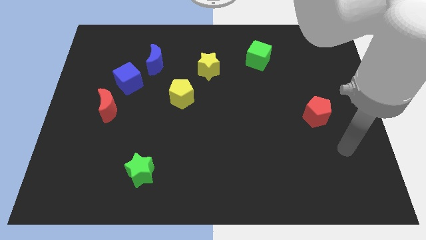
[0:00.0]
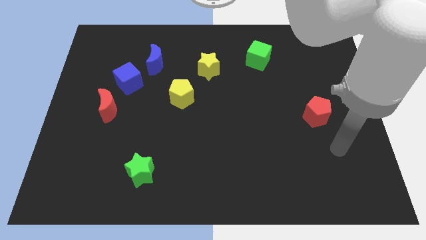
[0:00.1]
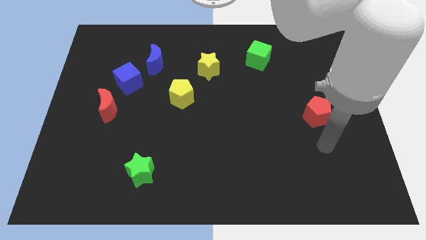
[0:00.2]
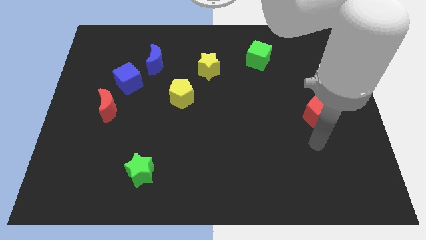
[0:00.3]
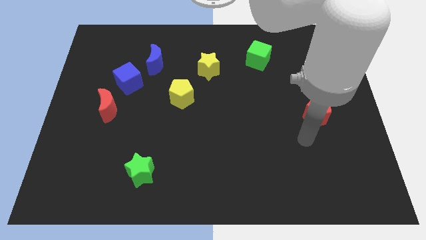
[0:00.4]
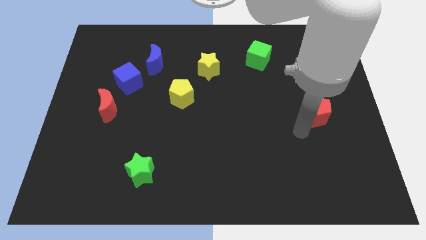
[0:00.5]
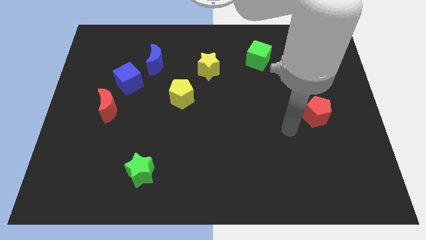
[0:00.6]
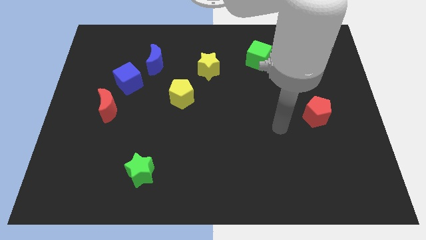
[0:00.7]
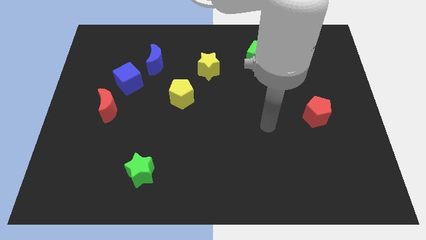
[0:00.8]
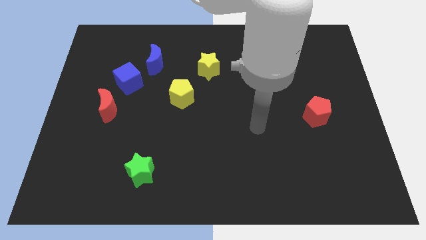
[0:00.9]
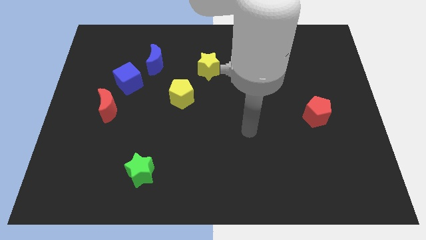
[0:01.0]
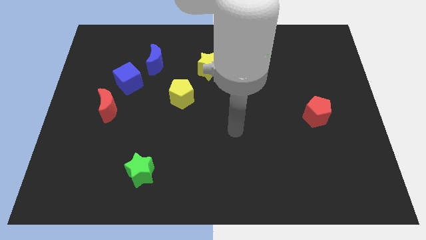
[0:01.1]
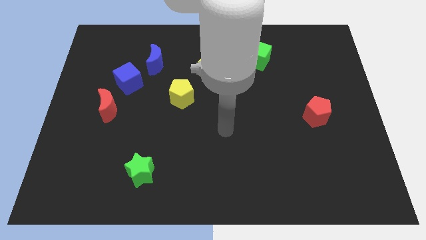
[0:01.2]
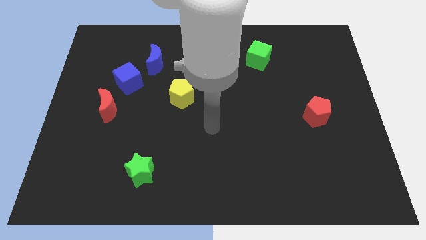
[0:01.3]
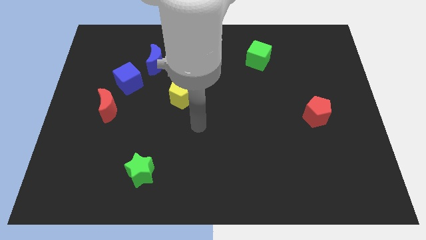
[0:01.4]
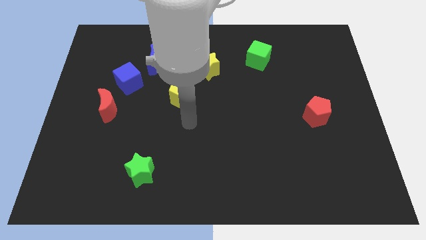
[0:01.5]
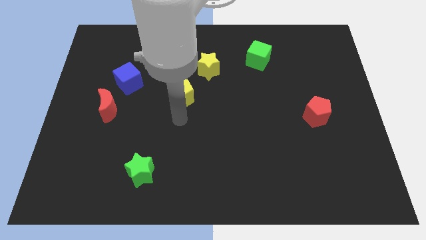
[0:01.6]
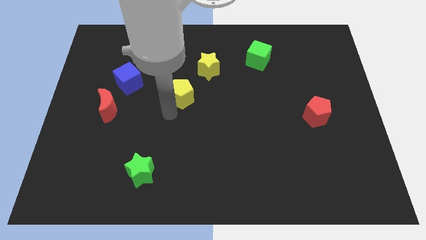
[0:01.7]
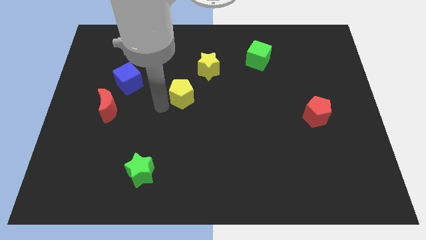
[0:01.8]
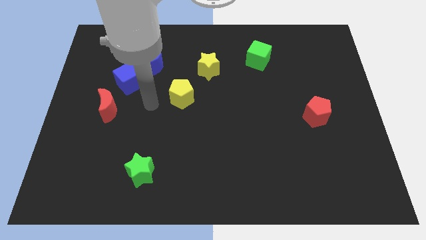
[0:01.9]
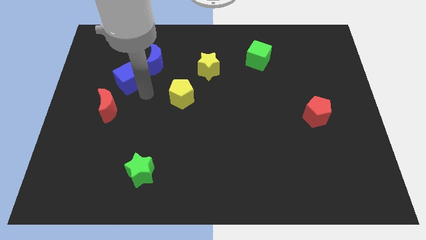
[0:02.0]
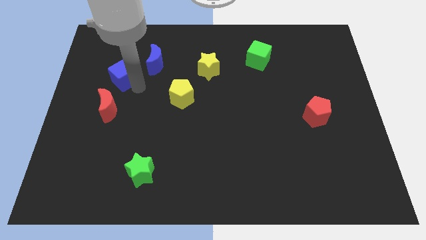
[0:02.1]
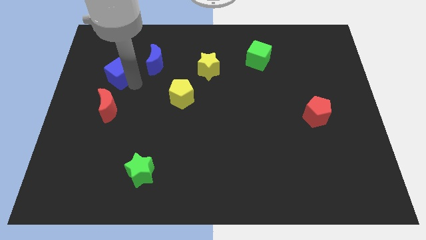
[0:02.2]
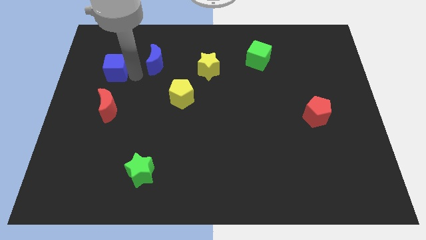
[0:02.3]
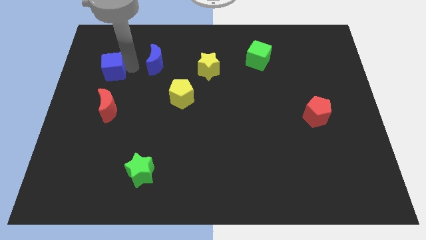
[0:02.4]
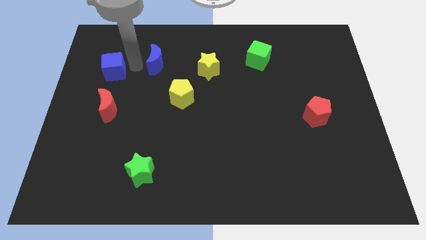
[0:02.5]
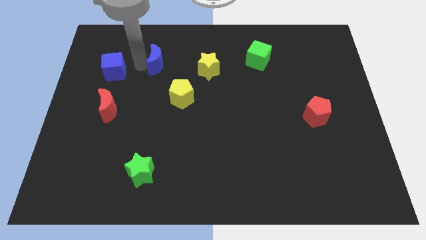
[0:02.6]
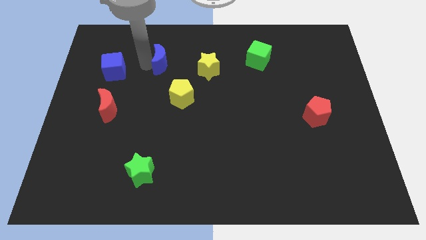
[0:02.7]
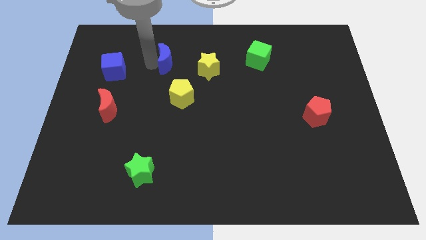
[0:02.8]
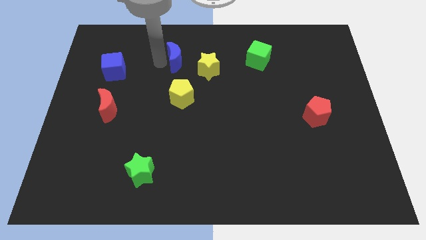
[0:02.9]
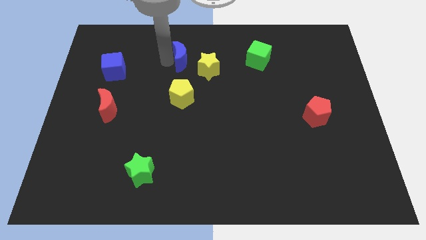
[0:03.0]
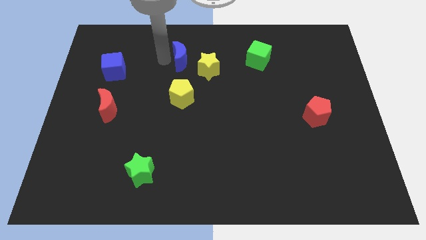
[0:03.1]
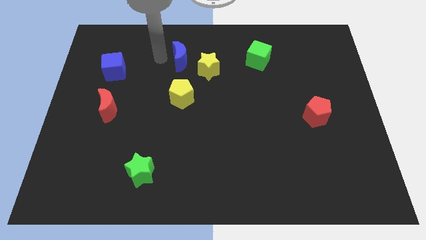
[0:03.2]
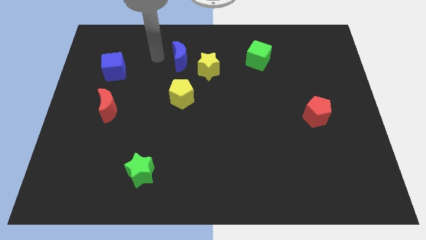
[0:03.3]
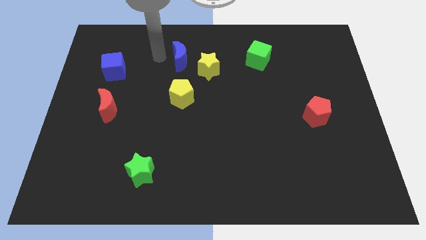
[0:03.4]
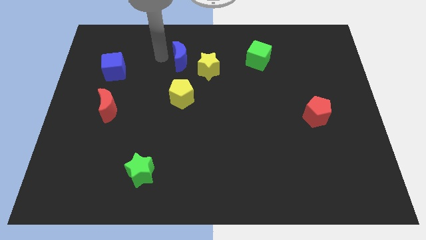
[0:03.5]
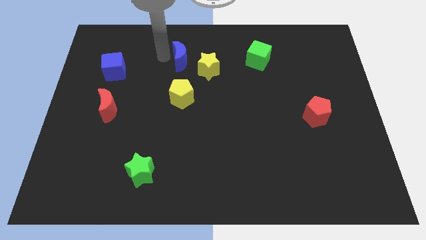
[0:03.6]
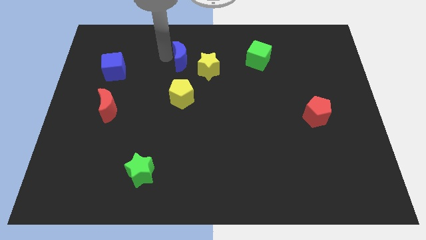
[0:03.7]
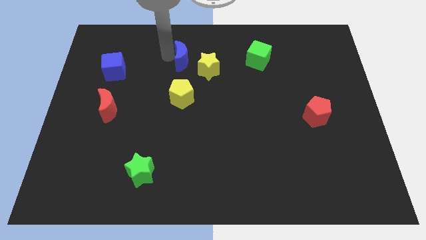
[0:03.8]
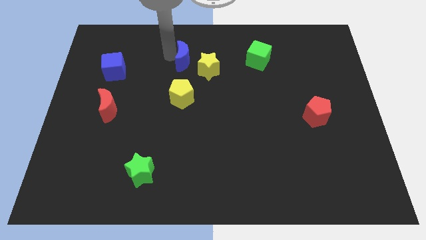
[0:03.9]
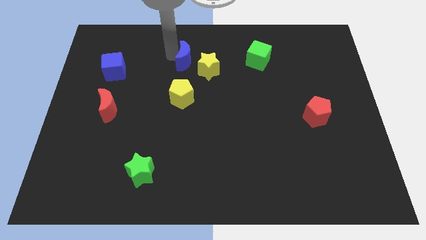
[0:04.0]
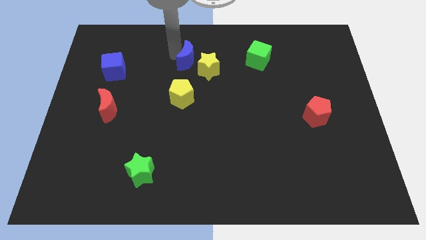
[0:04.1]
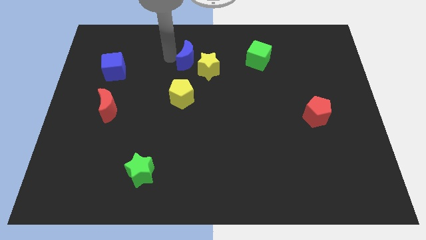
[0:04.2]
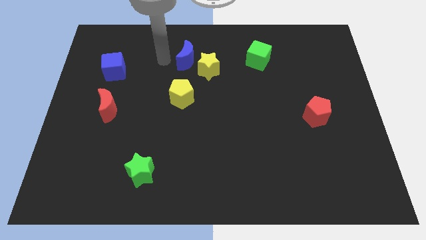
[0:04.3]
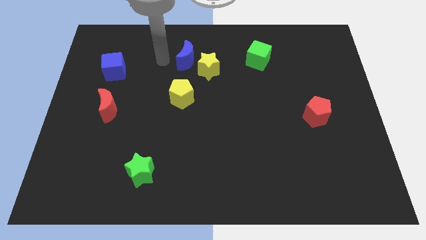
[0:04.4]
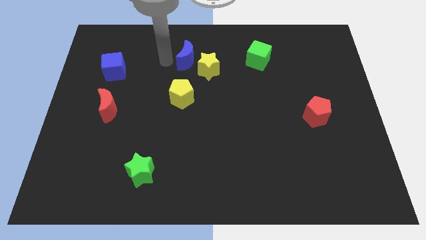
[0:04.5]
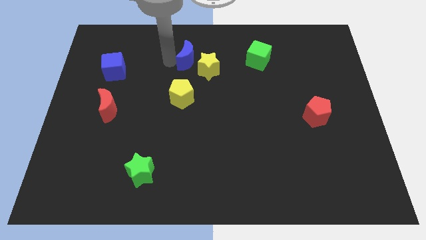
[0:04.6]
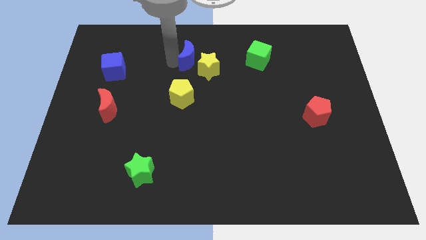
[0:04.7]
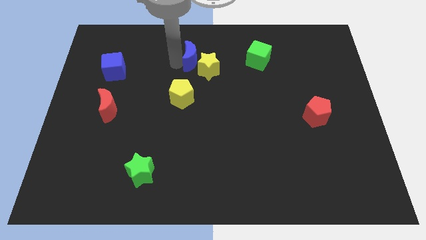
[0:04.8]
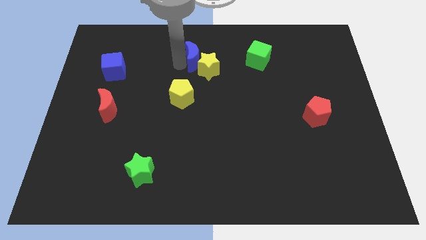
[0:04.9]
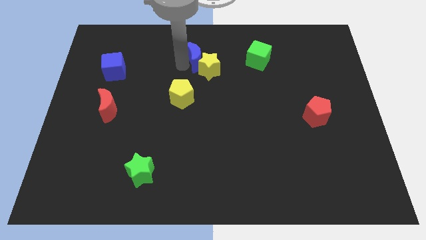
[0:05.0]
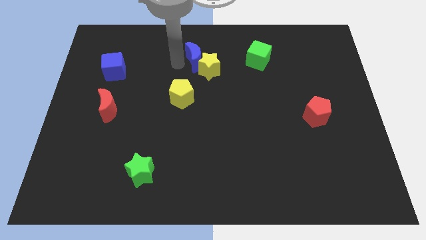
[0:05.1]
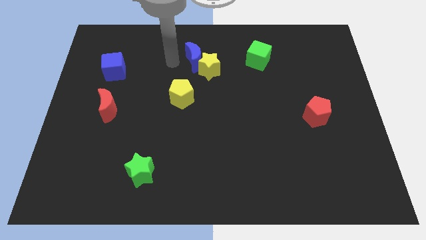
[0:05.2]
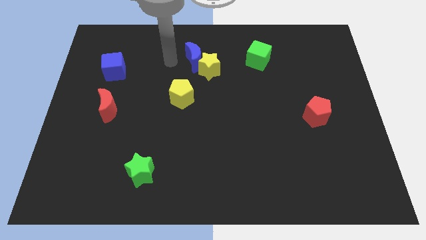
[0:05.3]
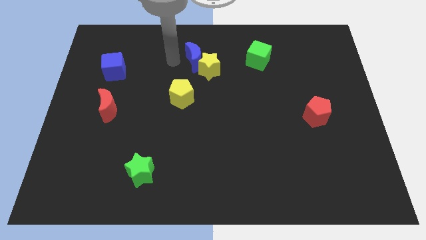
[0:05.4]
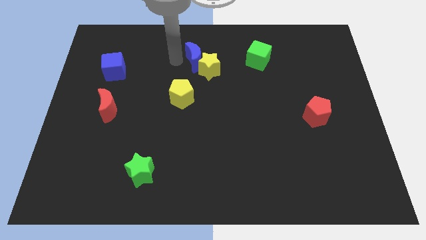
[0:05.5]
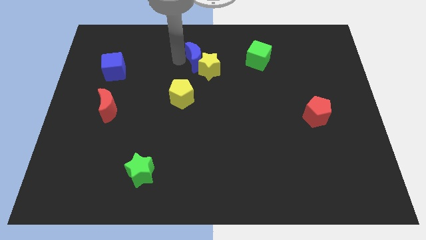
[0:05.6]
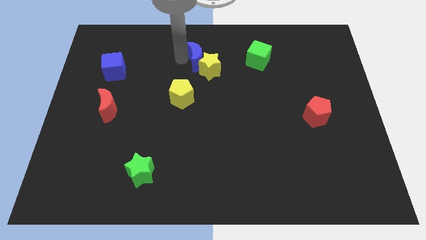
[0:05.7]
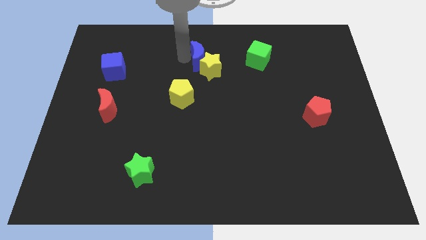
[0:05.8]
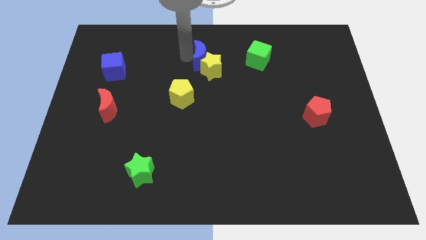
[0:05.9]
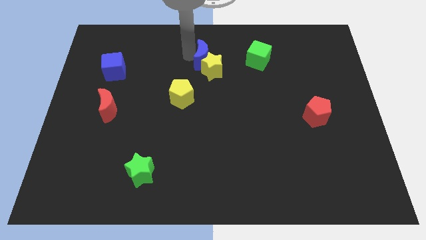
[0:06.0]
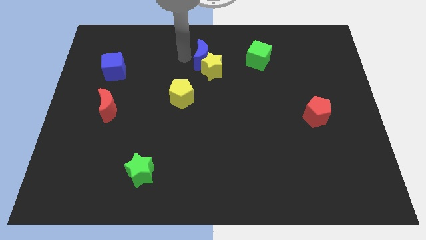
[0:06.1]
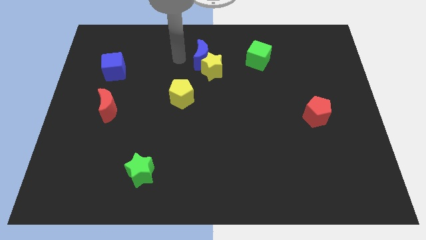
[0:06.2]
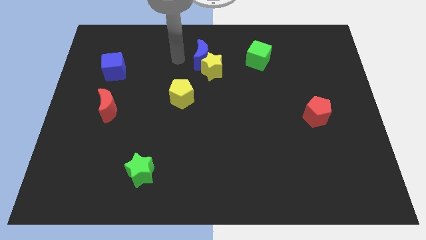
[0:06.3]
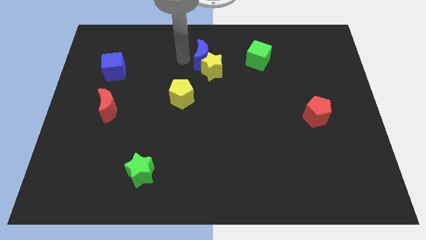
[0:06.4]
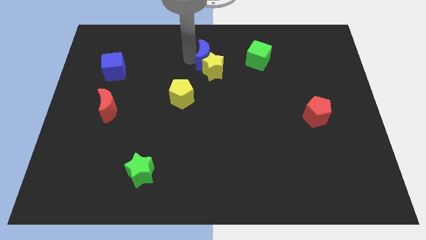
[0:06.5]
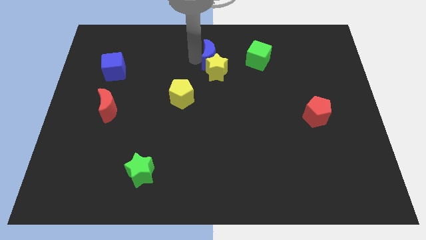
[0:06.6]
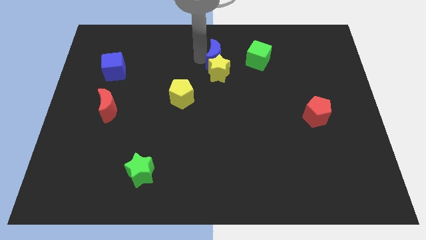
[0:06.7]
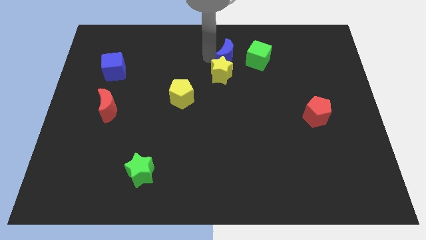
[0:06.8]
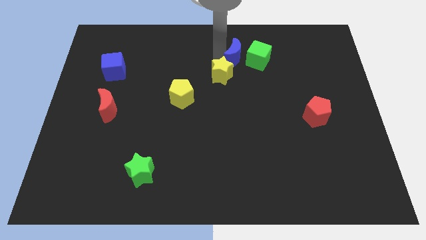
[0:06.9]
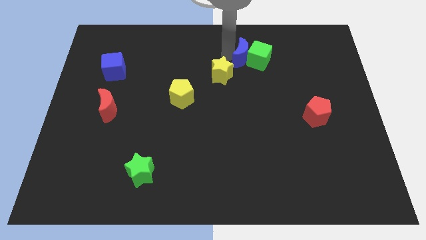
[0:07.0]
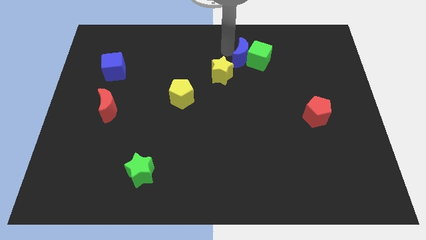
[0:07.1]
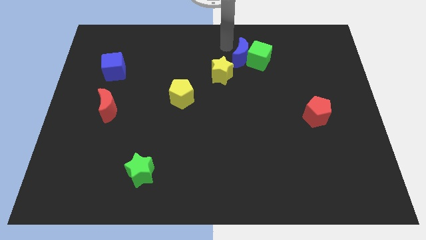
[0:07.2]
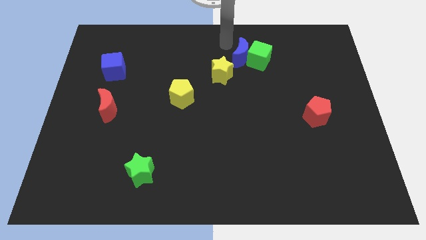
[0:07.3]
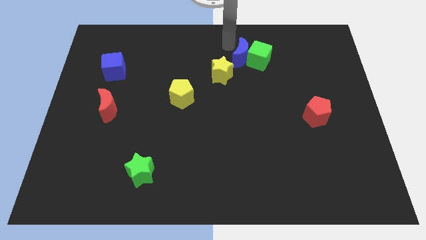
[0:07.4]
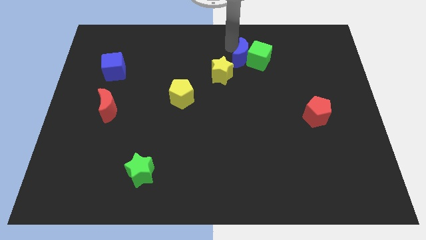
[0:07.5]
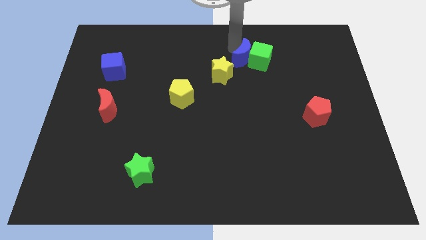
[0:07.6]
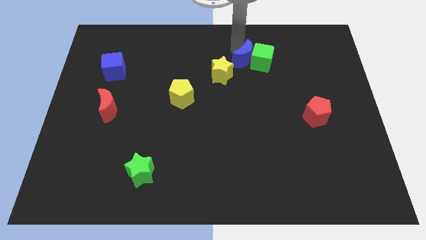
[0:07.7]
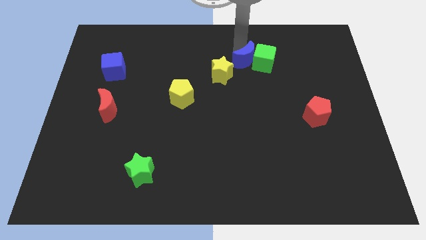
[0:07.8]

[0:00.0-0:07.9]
move the blue moon to the right side of the yellow star
